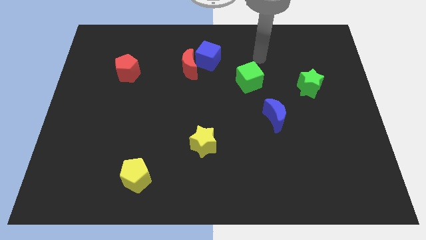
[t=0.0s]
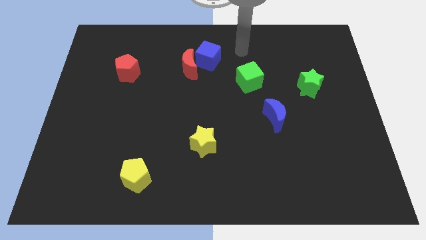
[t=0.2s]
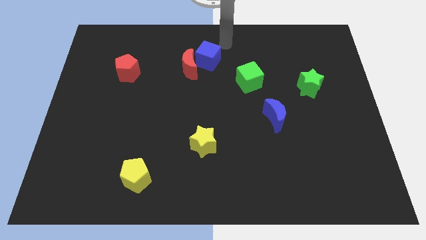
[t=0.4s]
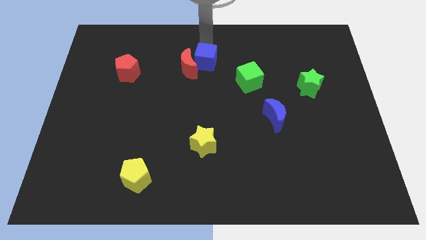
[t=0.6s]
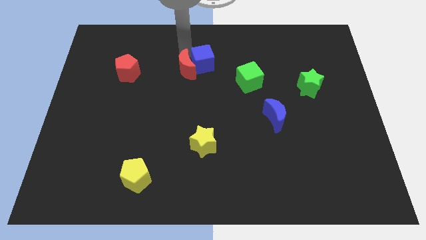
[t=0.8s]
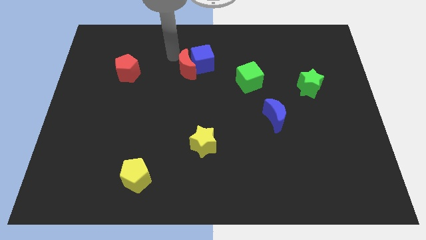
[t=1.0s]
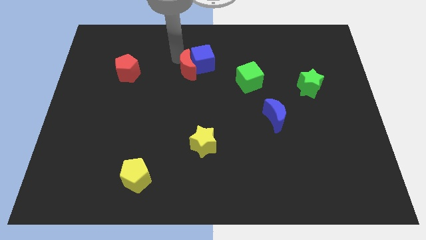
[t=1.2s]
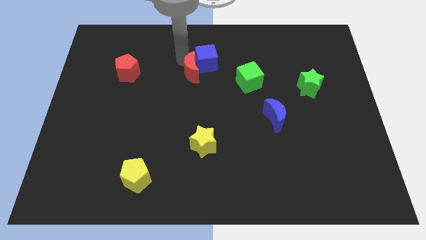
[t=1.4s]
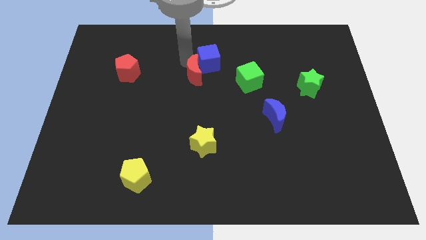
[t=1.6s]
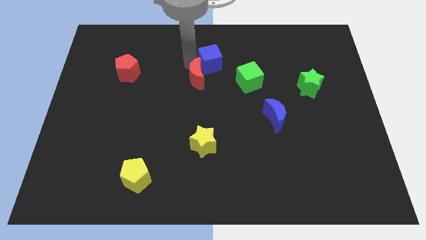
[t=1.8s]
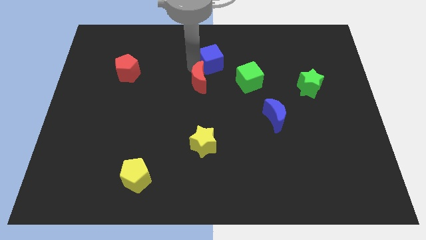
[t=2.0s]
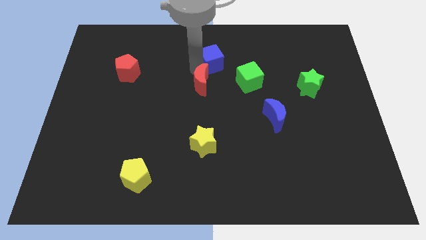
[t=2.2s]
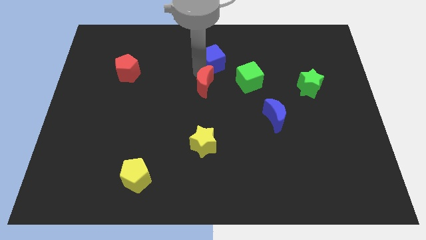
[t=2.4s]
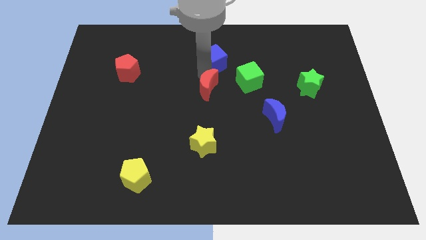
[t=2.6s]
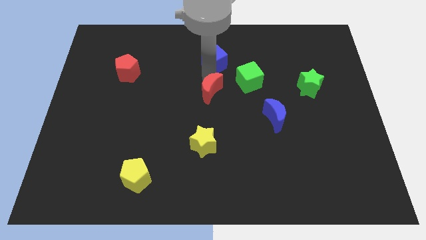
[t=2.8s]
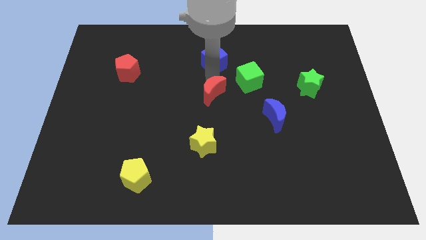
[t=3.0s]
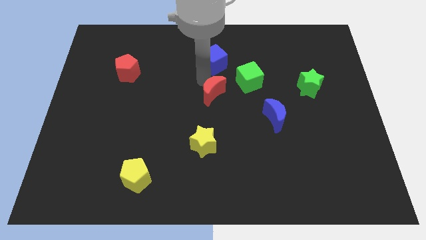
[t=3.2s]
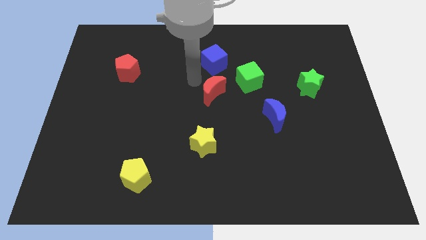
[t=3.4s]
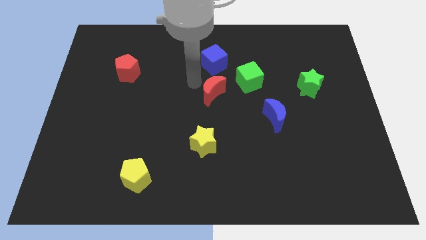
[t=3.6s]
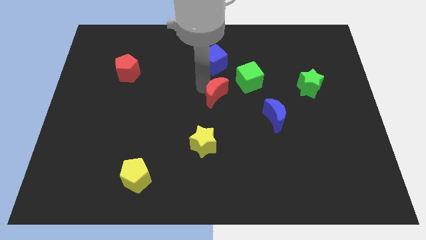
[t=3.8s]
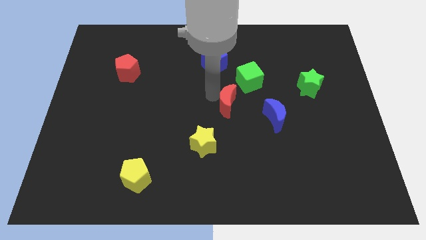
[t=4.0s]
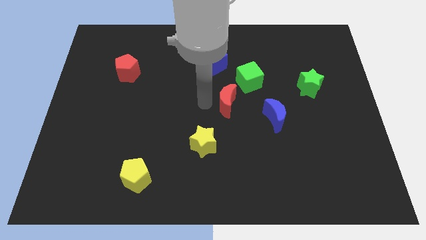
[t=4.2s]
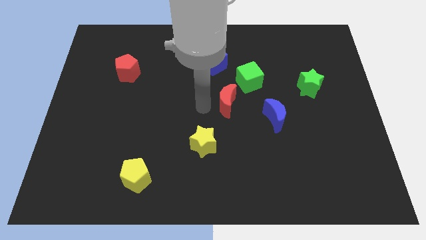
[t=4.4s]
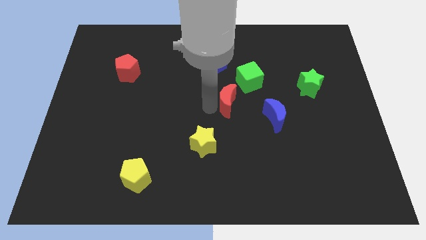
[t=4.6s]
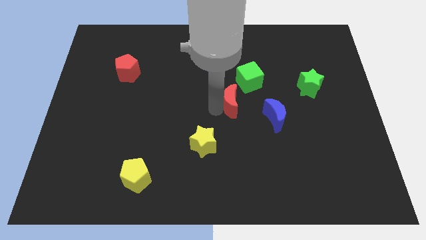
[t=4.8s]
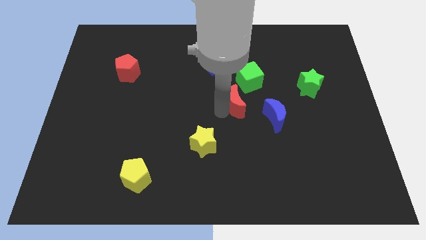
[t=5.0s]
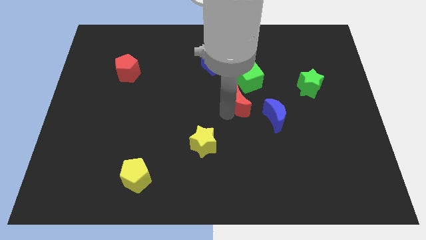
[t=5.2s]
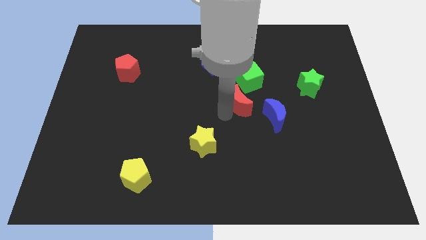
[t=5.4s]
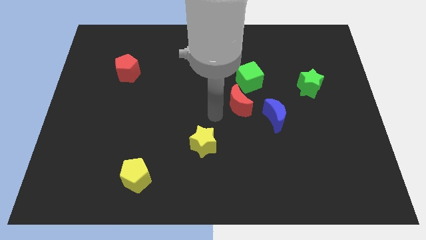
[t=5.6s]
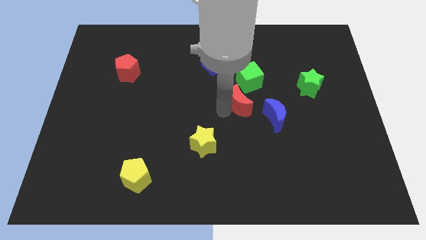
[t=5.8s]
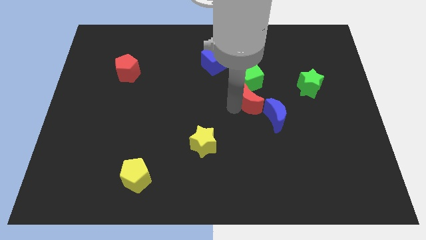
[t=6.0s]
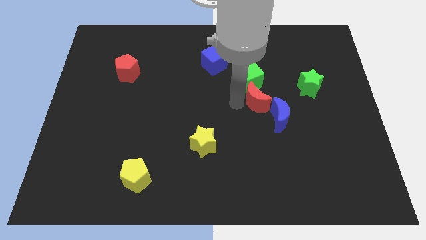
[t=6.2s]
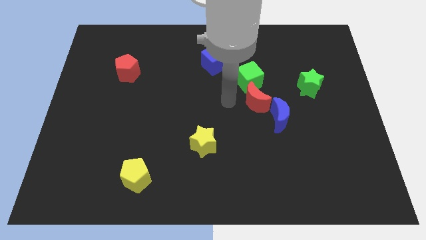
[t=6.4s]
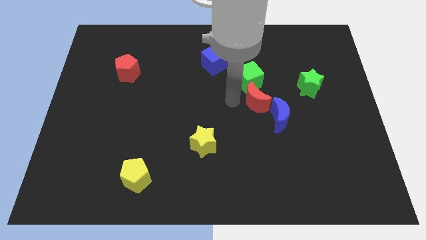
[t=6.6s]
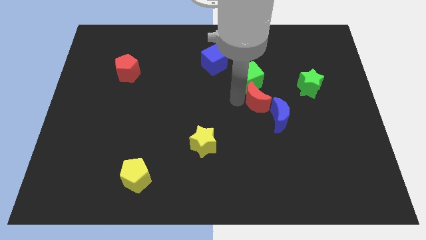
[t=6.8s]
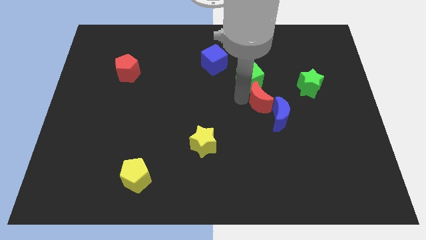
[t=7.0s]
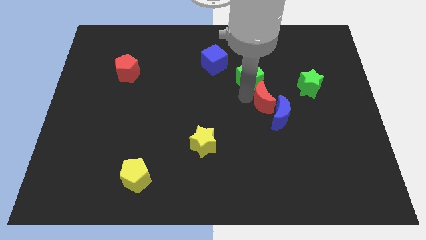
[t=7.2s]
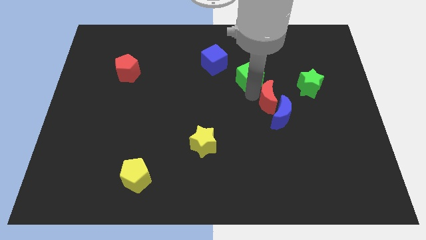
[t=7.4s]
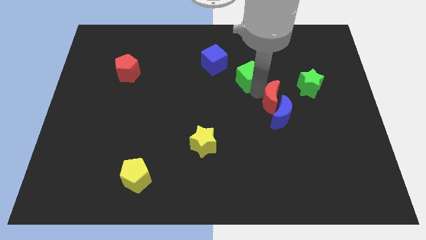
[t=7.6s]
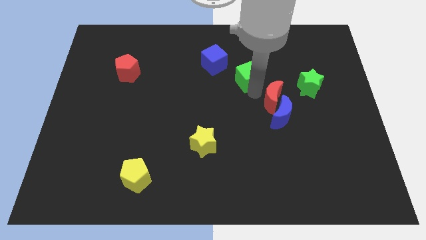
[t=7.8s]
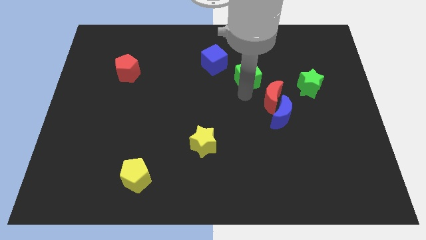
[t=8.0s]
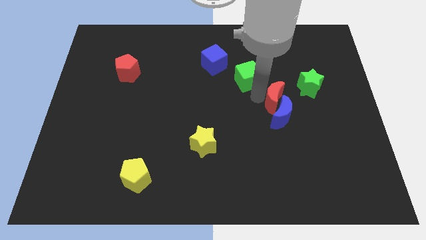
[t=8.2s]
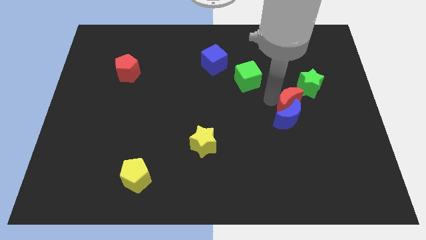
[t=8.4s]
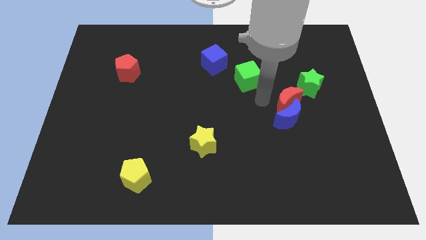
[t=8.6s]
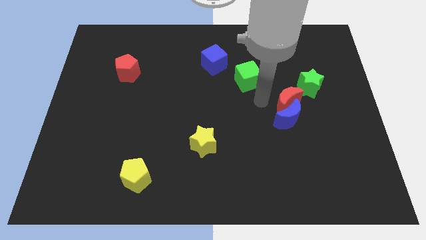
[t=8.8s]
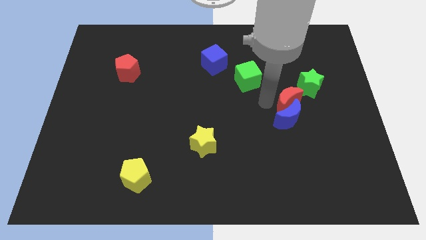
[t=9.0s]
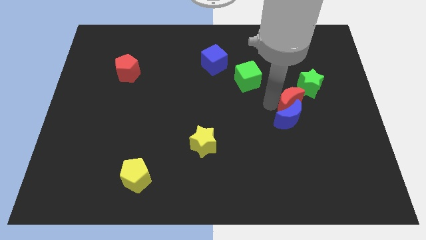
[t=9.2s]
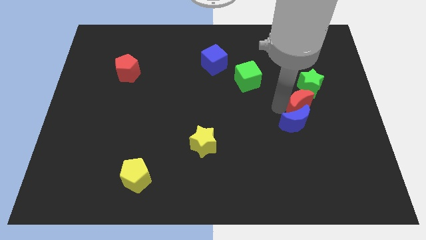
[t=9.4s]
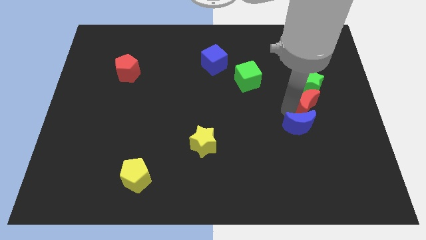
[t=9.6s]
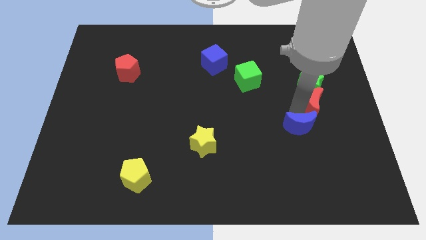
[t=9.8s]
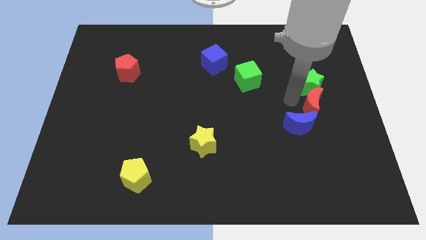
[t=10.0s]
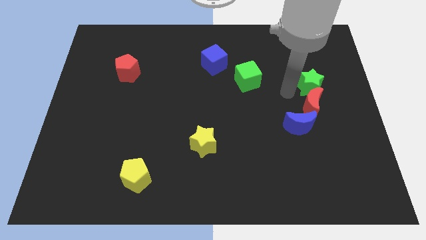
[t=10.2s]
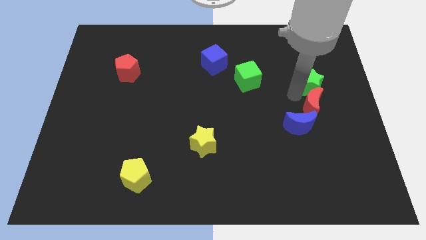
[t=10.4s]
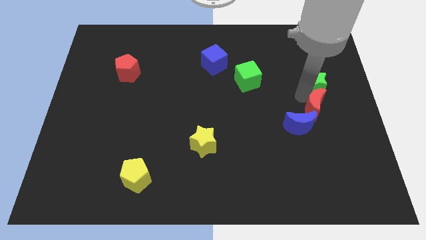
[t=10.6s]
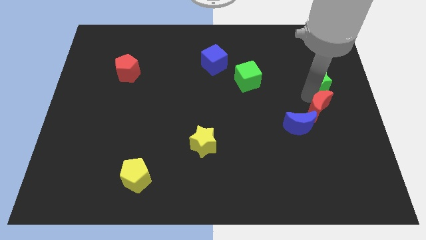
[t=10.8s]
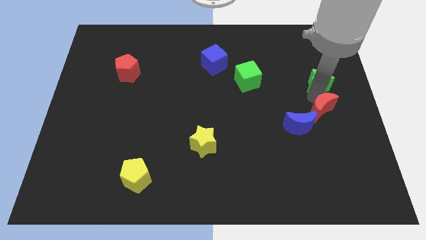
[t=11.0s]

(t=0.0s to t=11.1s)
push the red moon right of the blue moon

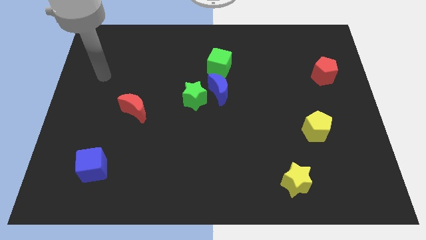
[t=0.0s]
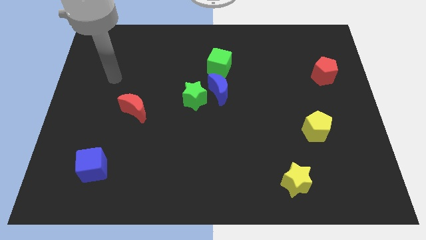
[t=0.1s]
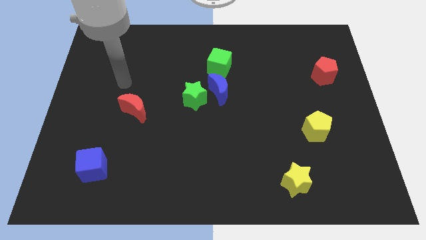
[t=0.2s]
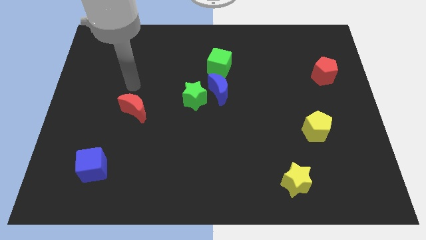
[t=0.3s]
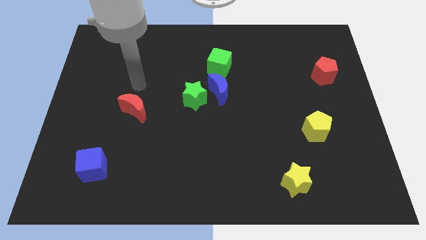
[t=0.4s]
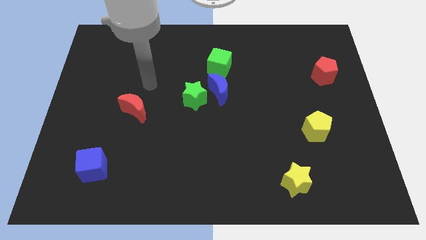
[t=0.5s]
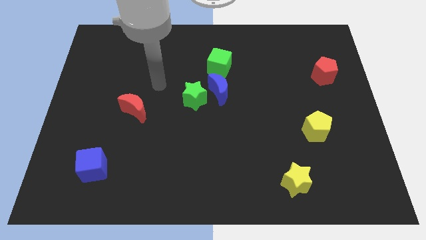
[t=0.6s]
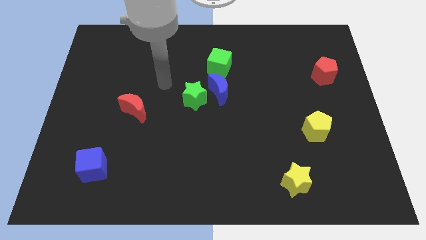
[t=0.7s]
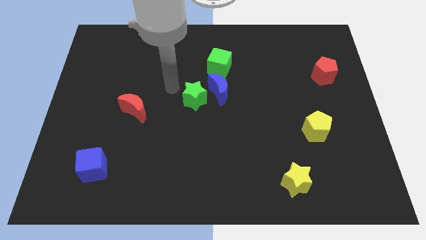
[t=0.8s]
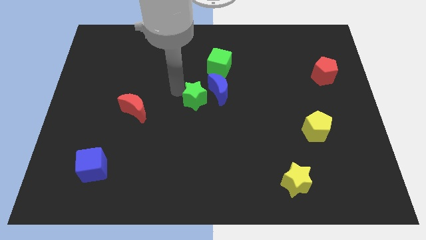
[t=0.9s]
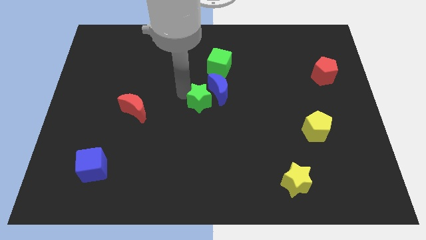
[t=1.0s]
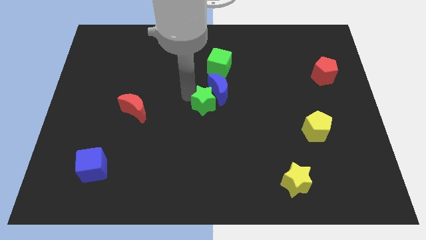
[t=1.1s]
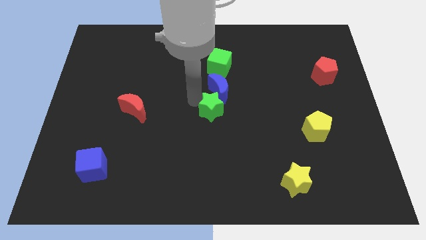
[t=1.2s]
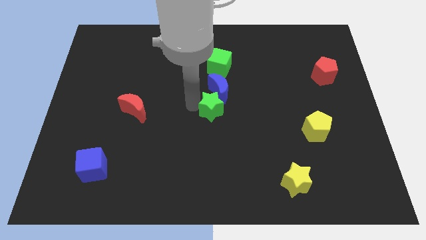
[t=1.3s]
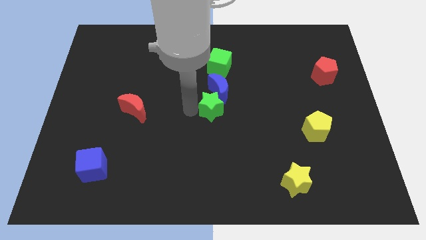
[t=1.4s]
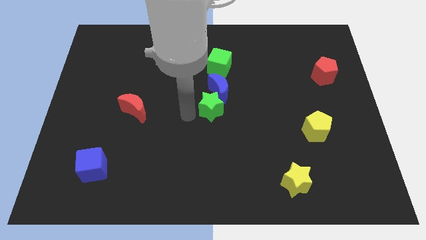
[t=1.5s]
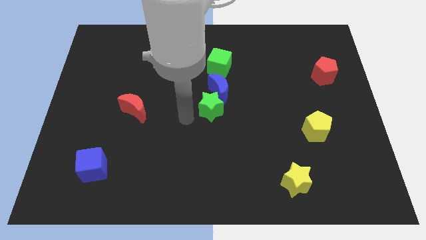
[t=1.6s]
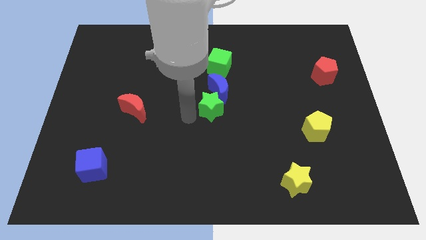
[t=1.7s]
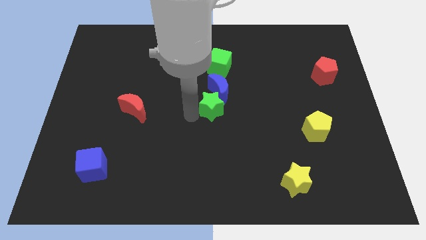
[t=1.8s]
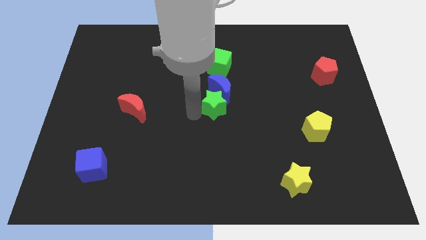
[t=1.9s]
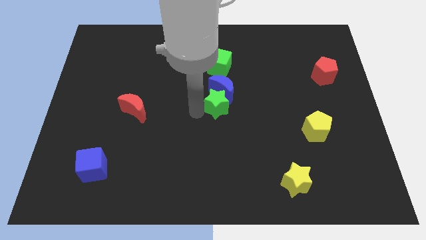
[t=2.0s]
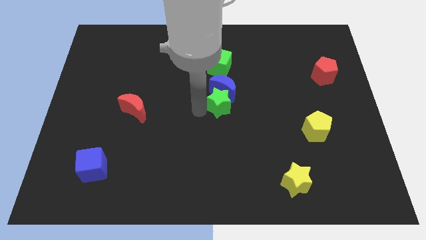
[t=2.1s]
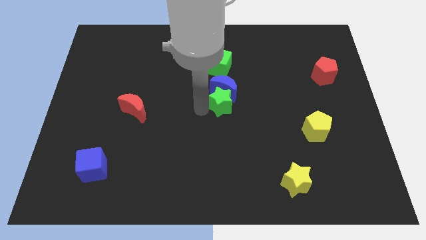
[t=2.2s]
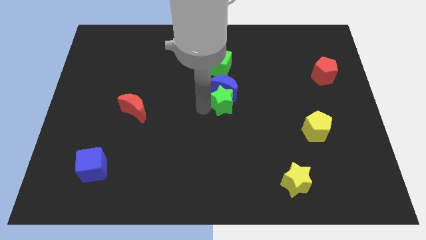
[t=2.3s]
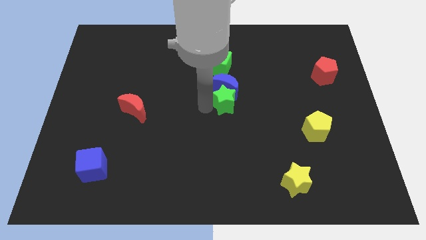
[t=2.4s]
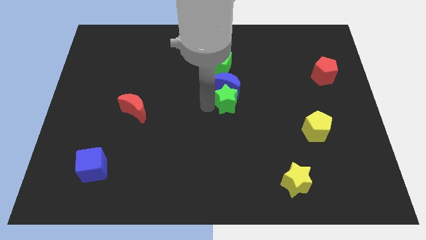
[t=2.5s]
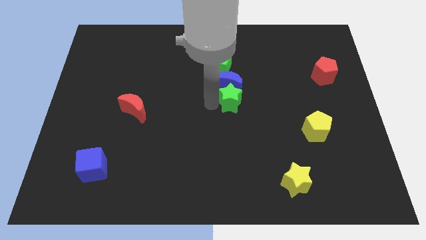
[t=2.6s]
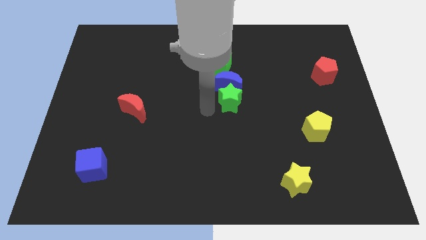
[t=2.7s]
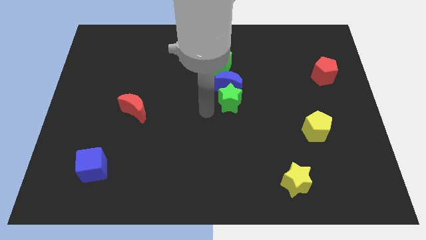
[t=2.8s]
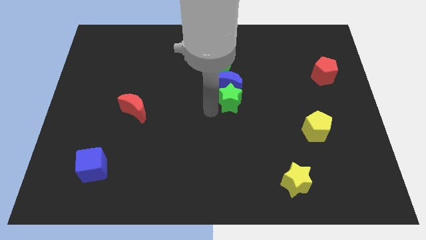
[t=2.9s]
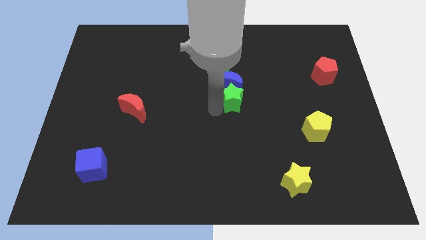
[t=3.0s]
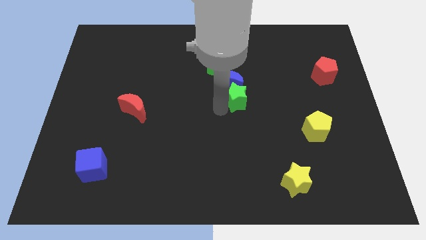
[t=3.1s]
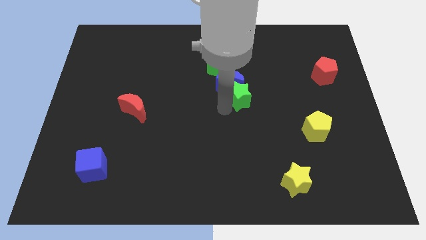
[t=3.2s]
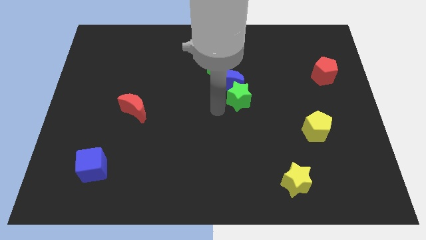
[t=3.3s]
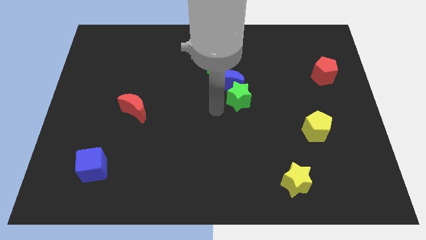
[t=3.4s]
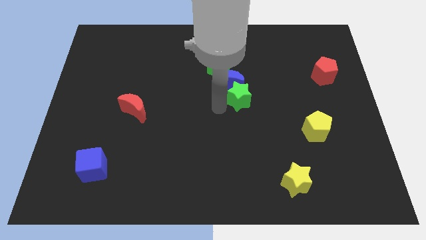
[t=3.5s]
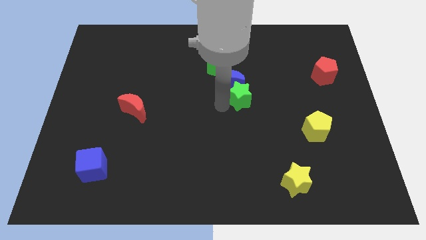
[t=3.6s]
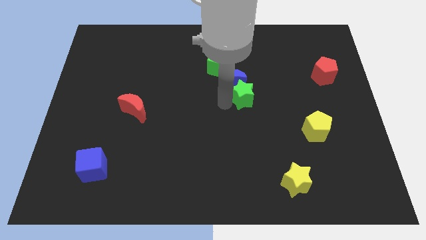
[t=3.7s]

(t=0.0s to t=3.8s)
slide the green star to the right side of the blue moon
